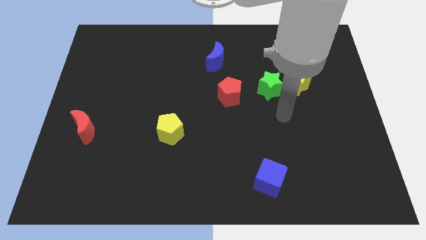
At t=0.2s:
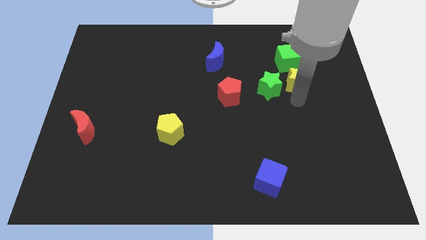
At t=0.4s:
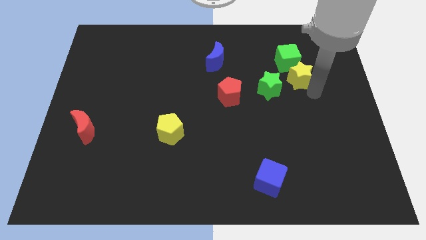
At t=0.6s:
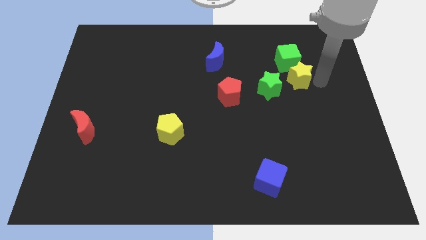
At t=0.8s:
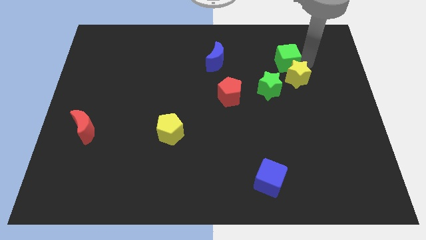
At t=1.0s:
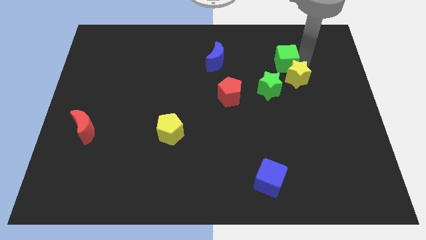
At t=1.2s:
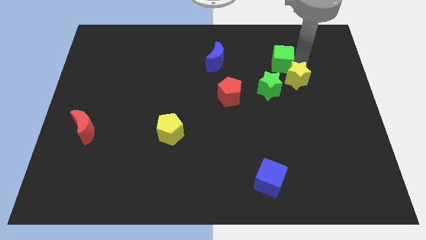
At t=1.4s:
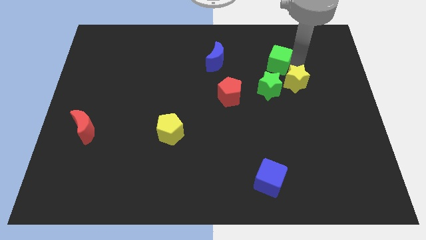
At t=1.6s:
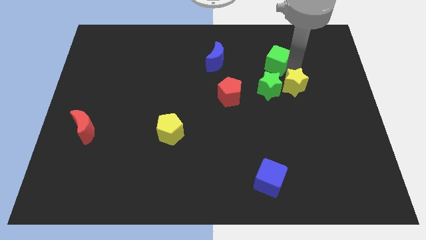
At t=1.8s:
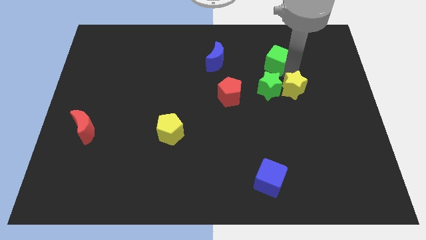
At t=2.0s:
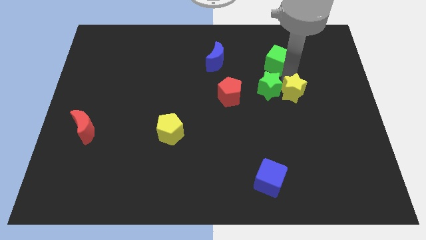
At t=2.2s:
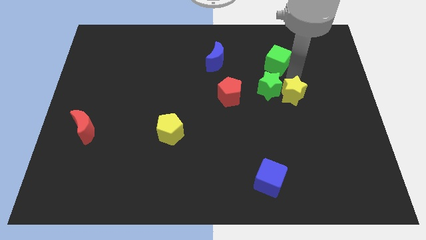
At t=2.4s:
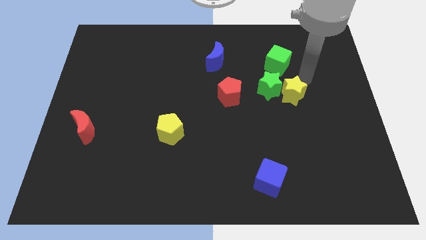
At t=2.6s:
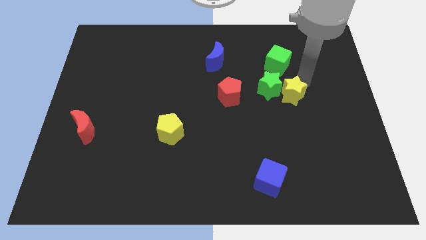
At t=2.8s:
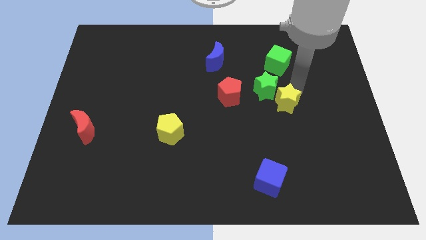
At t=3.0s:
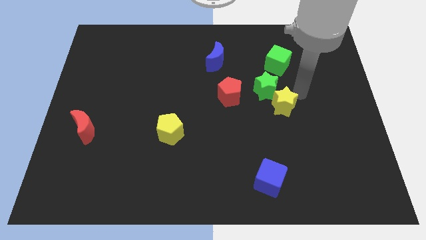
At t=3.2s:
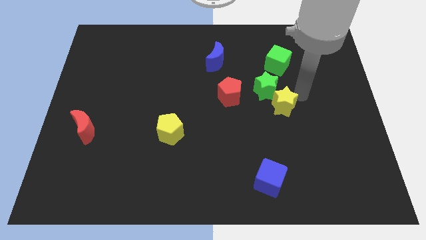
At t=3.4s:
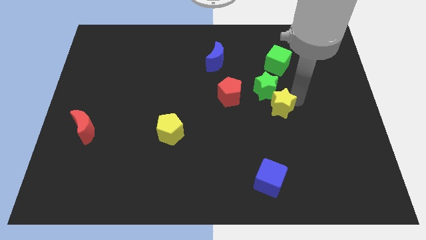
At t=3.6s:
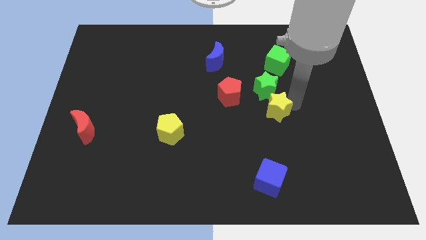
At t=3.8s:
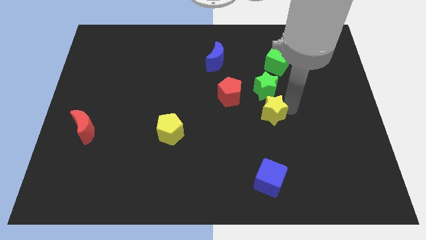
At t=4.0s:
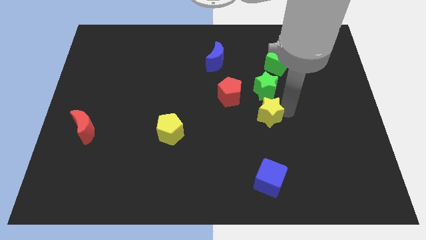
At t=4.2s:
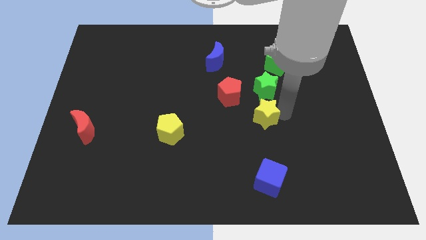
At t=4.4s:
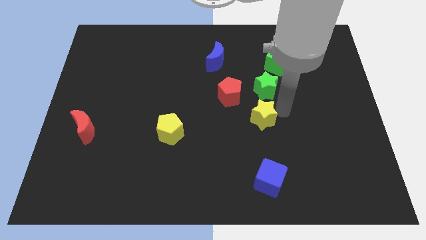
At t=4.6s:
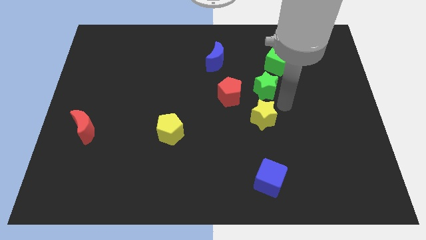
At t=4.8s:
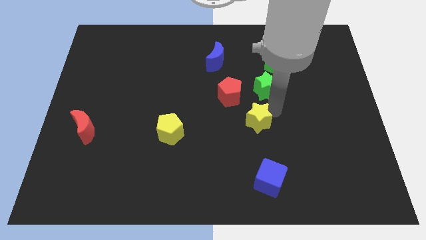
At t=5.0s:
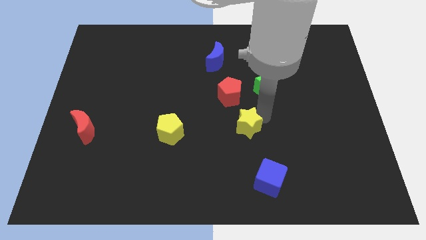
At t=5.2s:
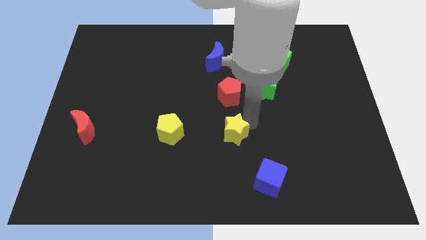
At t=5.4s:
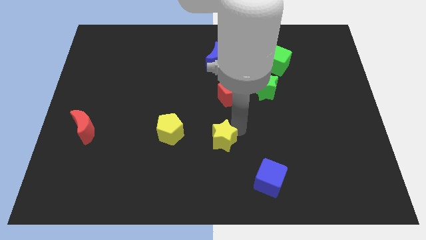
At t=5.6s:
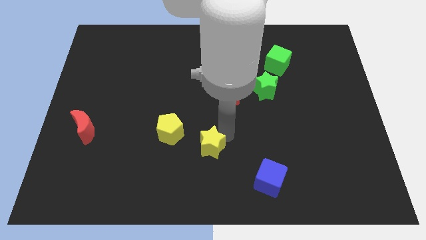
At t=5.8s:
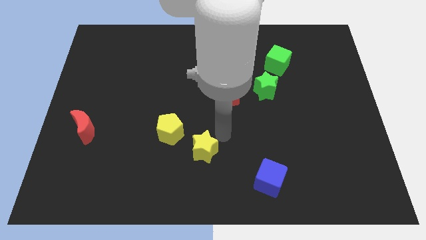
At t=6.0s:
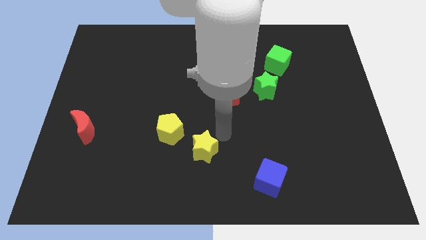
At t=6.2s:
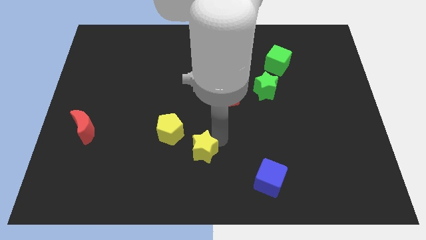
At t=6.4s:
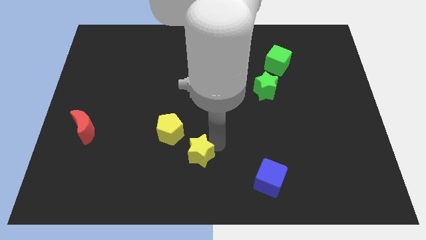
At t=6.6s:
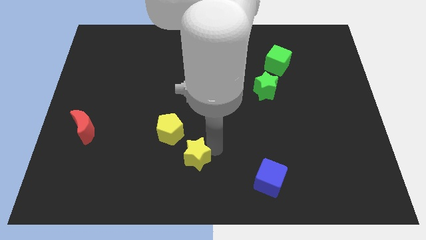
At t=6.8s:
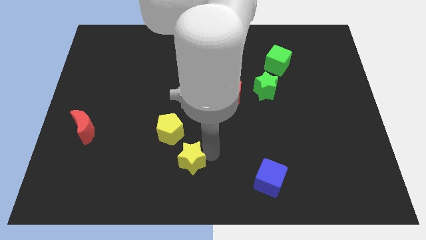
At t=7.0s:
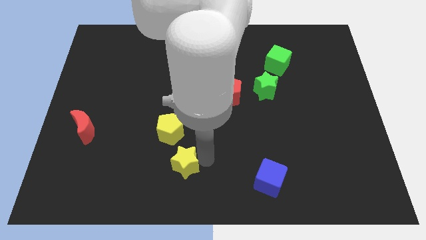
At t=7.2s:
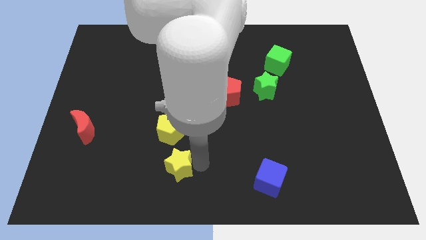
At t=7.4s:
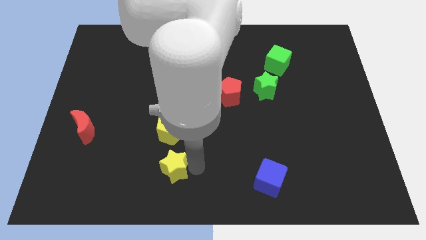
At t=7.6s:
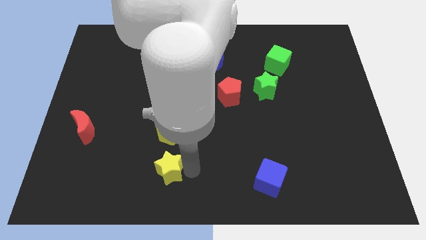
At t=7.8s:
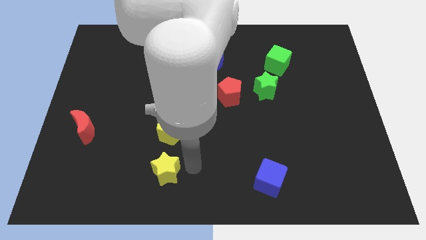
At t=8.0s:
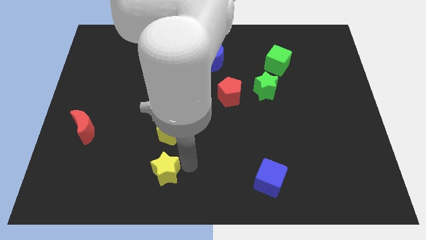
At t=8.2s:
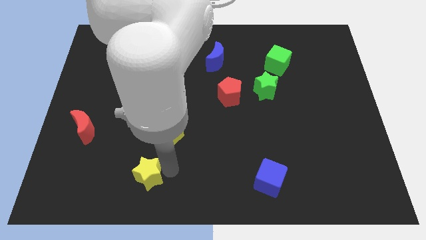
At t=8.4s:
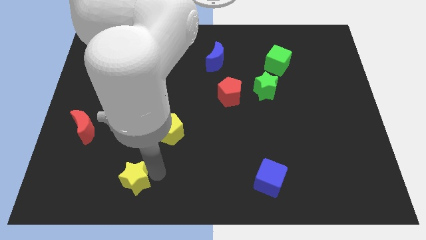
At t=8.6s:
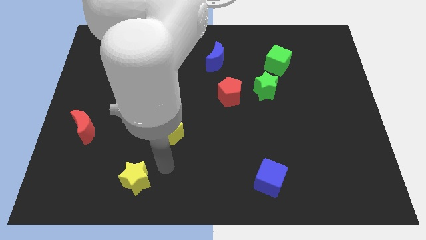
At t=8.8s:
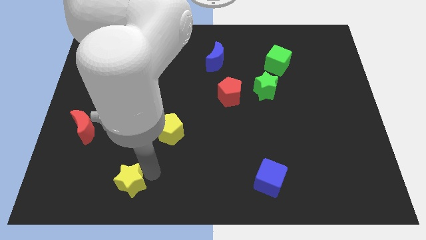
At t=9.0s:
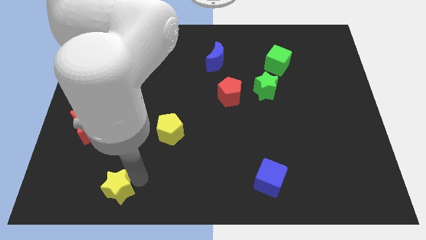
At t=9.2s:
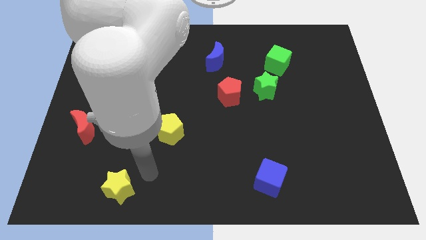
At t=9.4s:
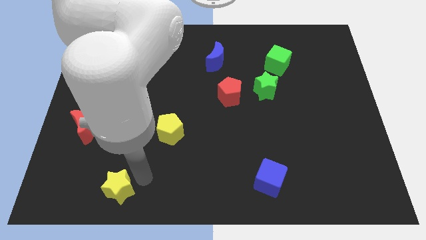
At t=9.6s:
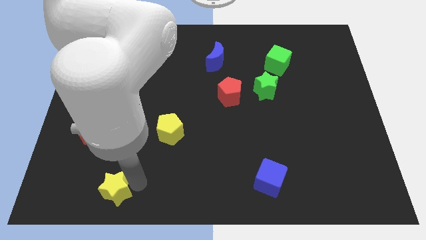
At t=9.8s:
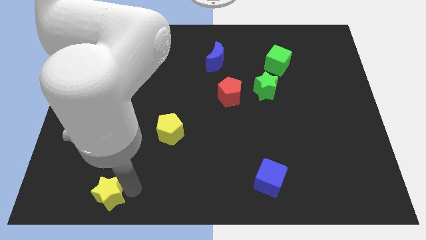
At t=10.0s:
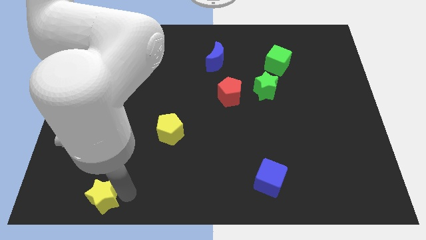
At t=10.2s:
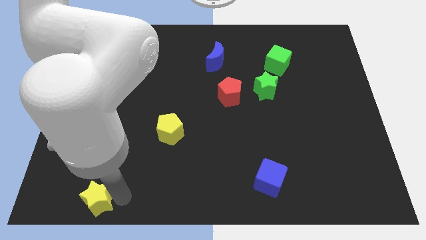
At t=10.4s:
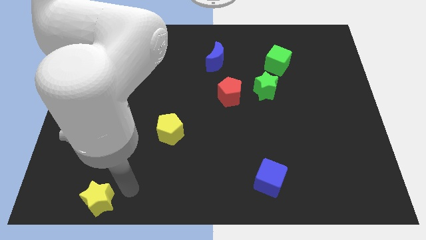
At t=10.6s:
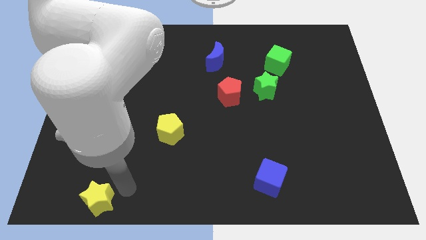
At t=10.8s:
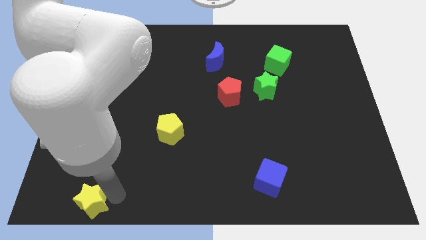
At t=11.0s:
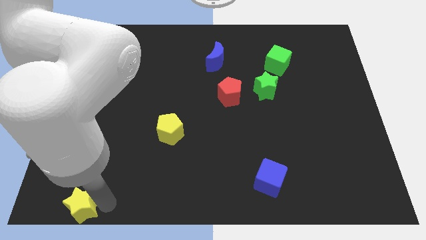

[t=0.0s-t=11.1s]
put the yellow star to the lower left corner

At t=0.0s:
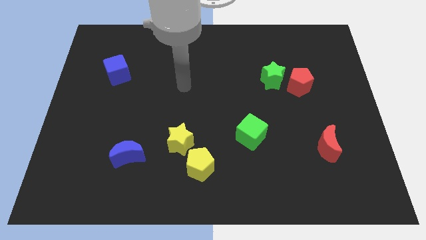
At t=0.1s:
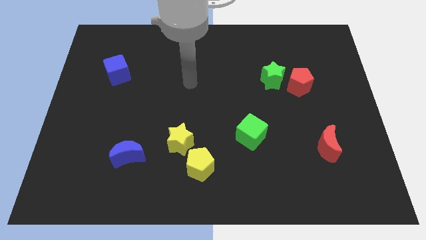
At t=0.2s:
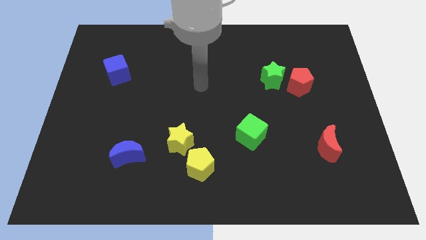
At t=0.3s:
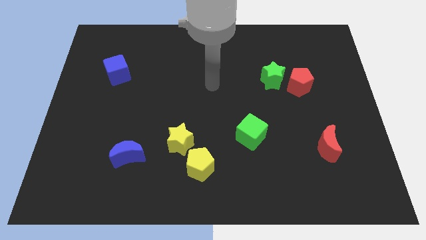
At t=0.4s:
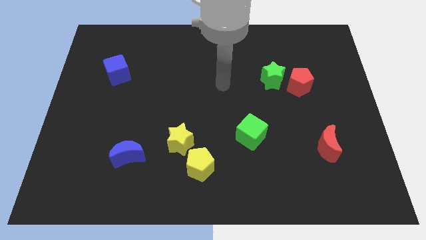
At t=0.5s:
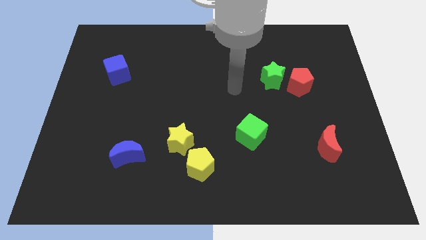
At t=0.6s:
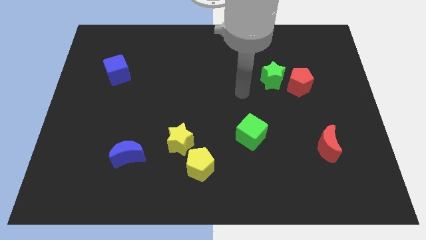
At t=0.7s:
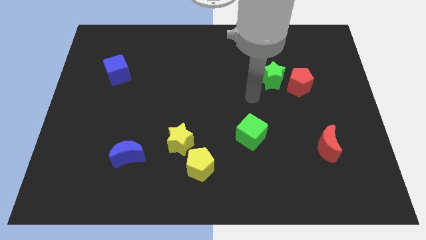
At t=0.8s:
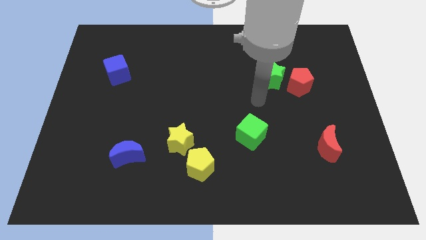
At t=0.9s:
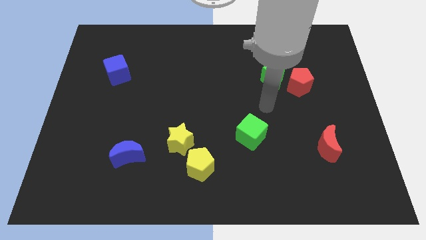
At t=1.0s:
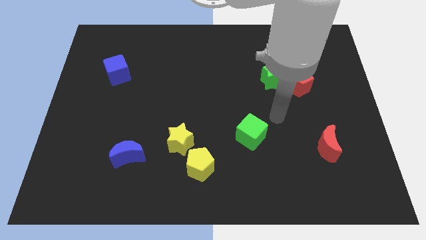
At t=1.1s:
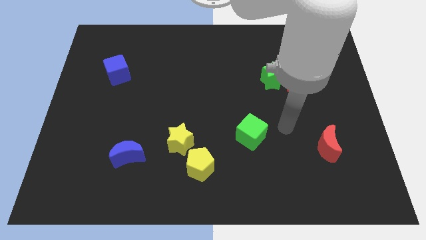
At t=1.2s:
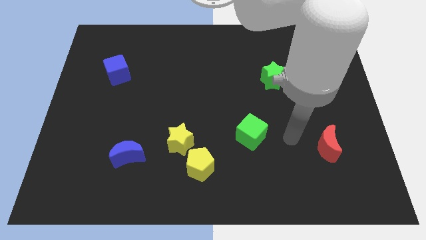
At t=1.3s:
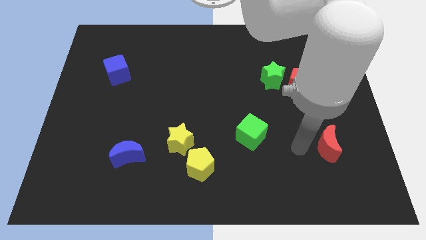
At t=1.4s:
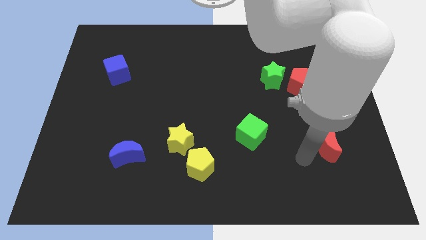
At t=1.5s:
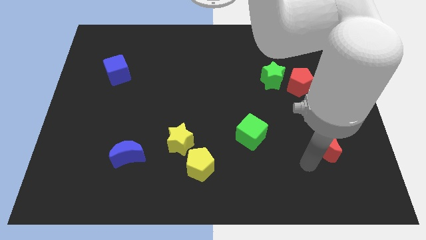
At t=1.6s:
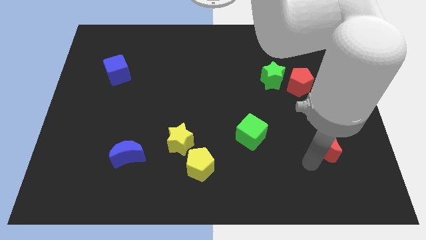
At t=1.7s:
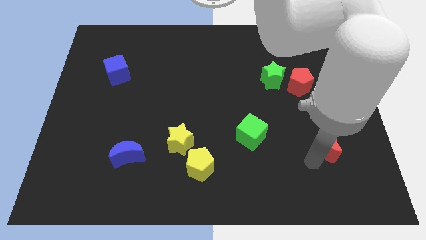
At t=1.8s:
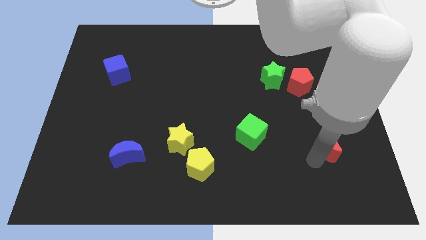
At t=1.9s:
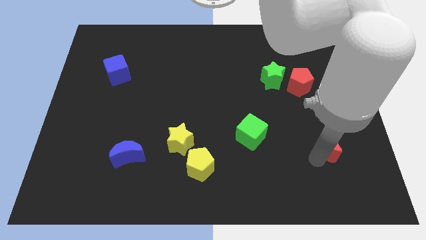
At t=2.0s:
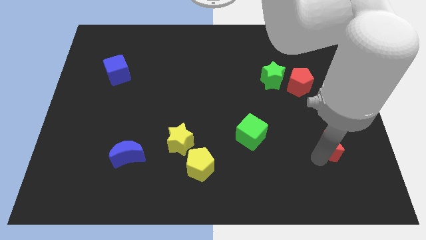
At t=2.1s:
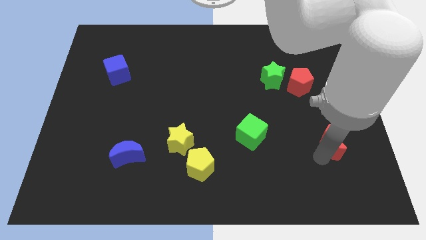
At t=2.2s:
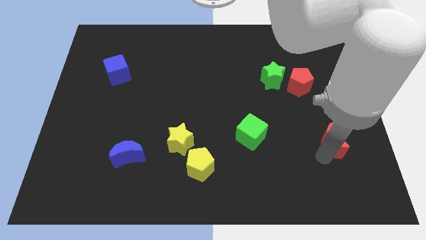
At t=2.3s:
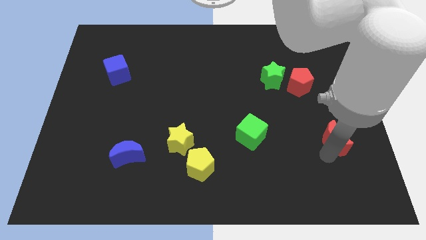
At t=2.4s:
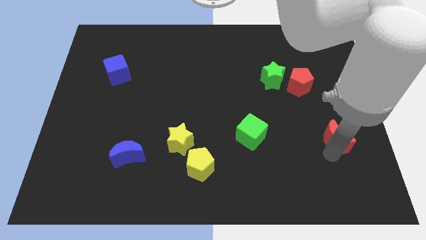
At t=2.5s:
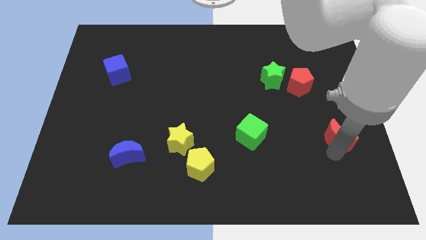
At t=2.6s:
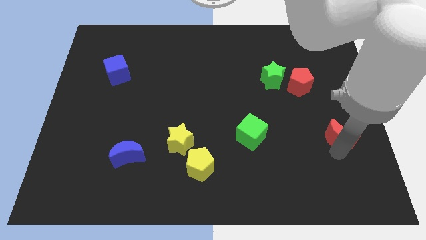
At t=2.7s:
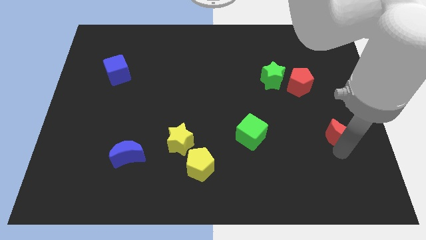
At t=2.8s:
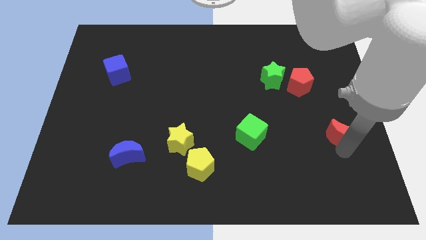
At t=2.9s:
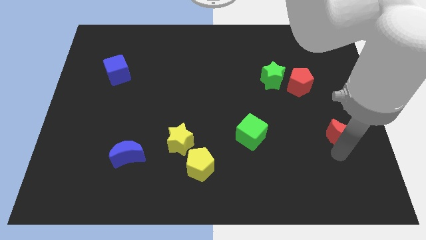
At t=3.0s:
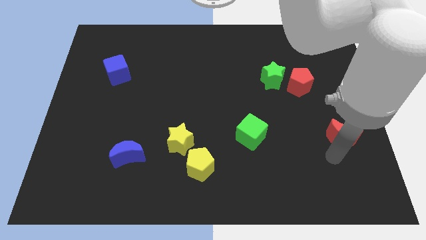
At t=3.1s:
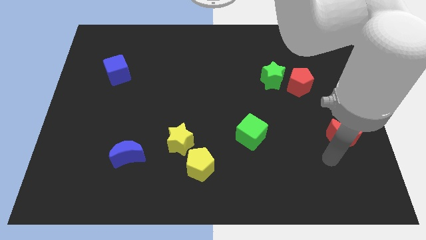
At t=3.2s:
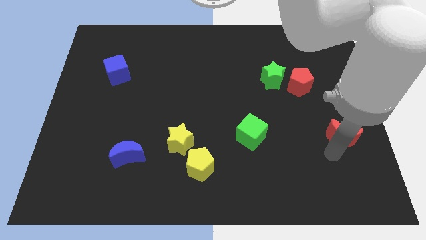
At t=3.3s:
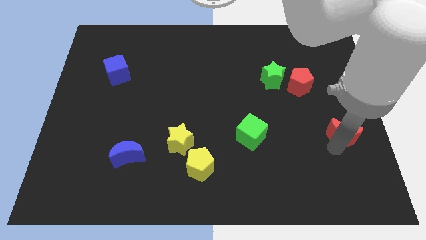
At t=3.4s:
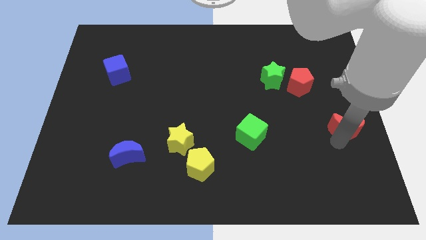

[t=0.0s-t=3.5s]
push the red moon to the center right
